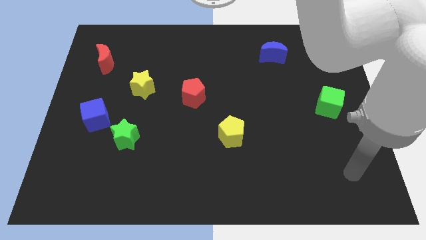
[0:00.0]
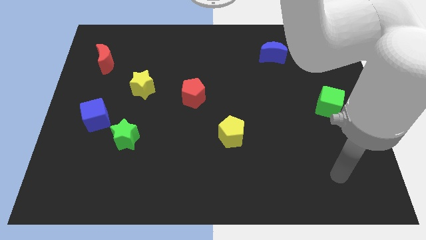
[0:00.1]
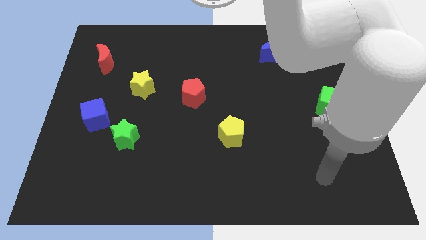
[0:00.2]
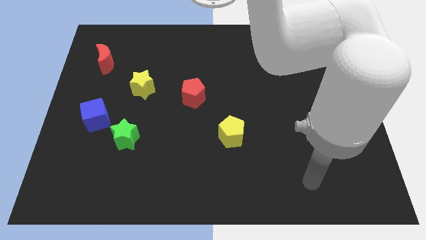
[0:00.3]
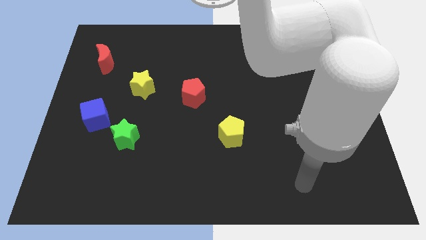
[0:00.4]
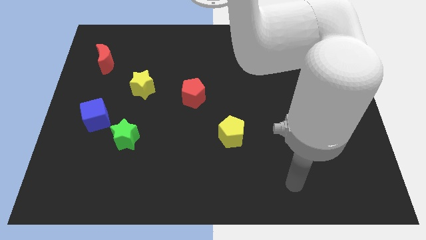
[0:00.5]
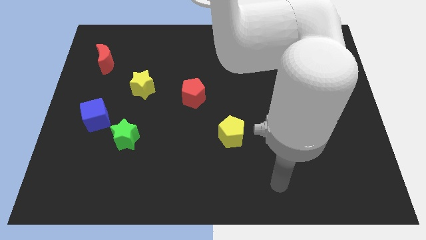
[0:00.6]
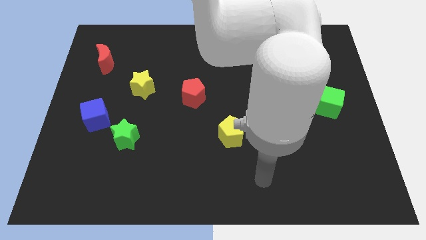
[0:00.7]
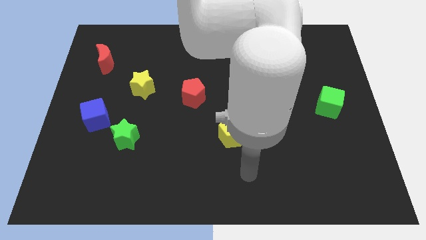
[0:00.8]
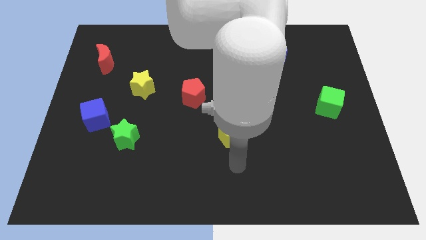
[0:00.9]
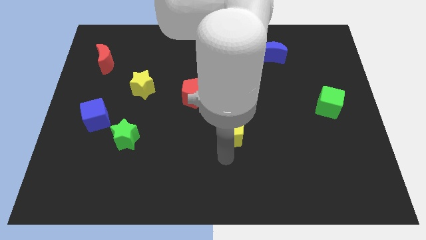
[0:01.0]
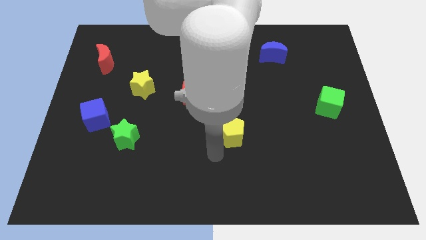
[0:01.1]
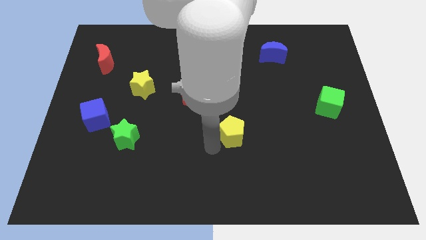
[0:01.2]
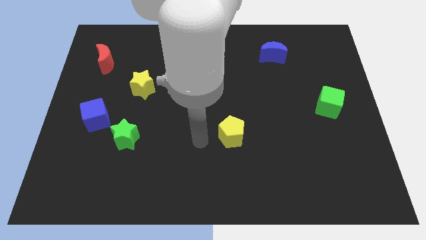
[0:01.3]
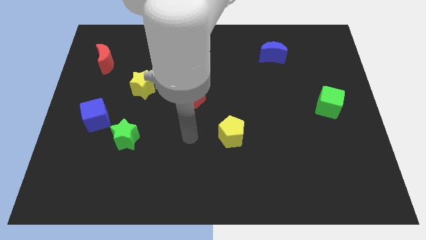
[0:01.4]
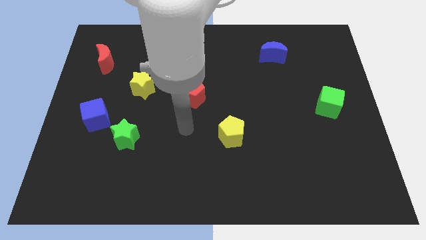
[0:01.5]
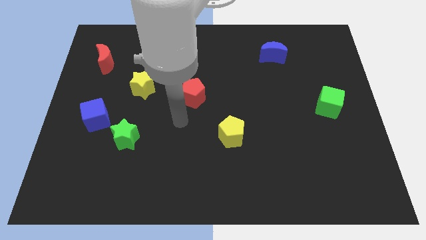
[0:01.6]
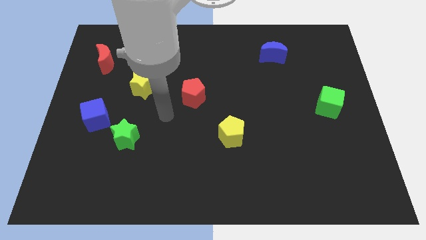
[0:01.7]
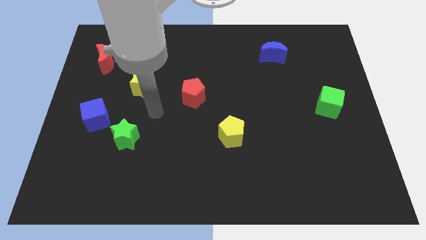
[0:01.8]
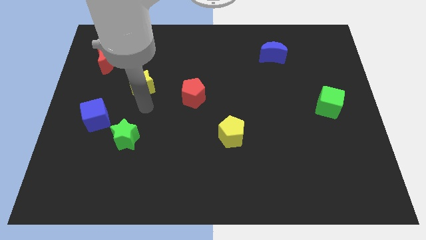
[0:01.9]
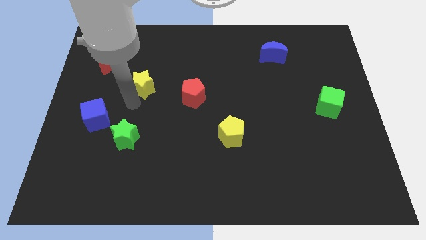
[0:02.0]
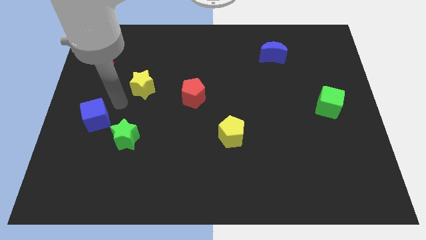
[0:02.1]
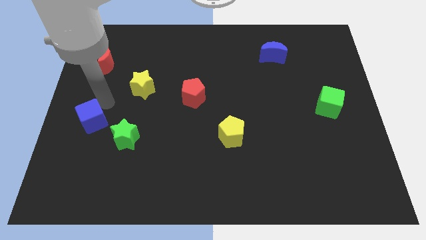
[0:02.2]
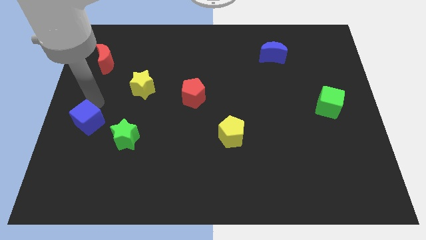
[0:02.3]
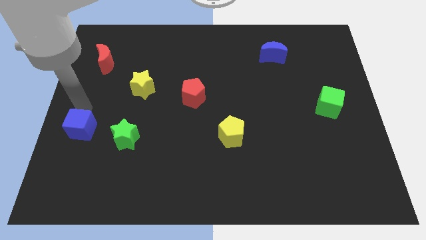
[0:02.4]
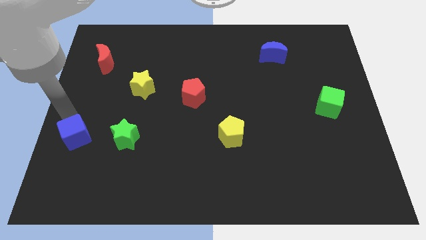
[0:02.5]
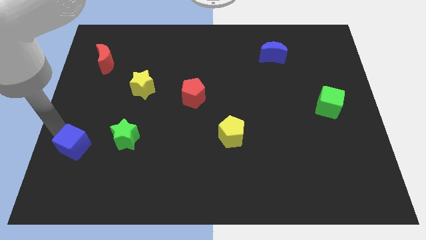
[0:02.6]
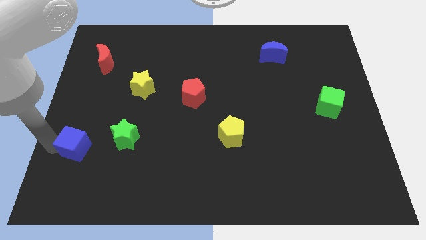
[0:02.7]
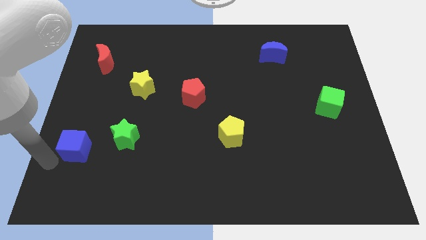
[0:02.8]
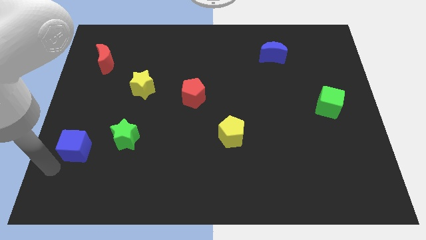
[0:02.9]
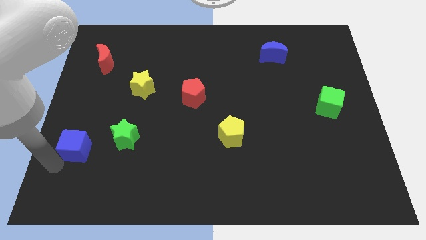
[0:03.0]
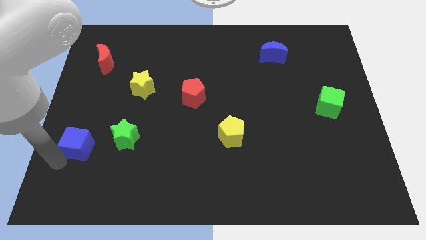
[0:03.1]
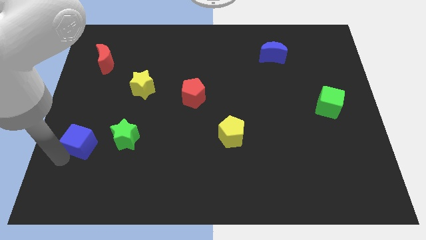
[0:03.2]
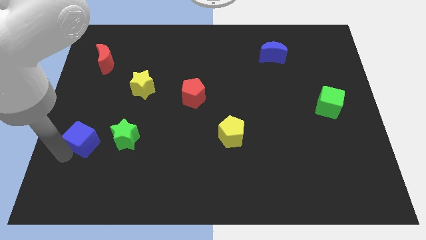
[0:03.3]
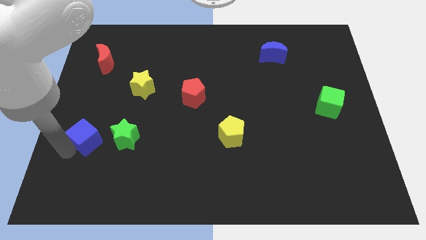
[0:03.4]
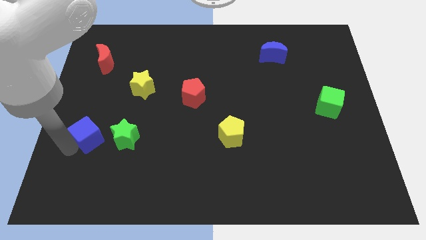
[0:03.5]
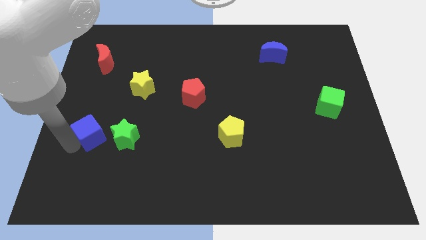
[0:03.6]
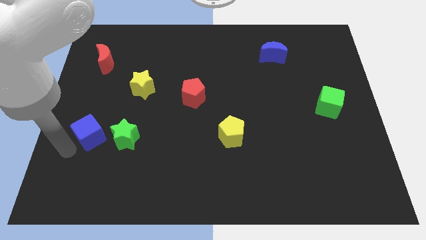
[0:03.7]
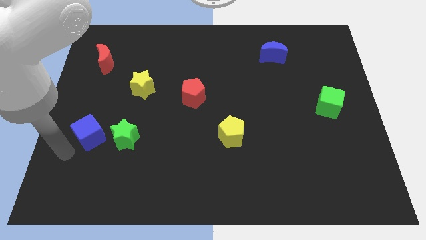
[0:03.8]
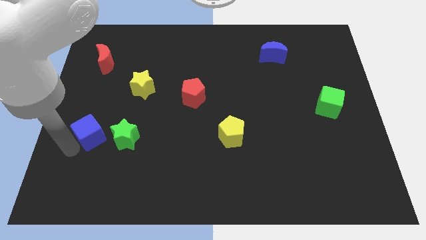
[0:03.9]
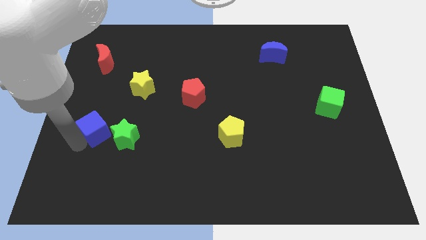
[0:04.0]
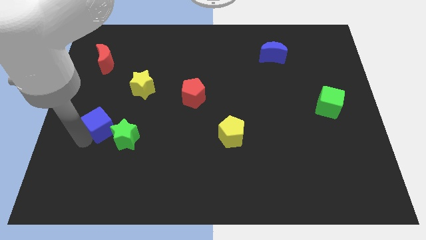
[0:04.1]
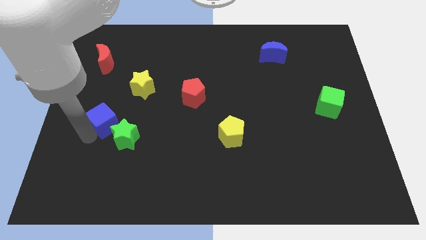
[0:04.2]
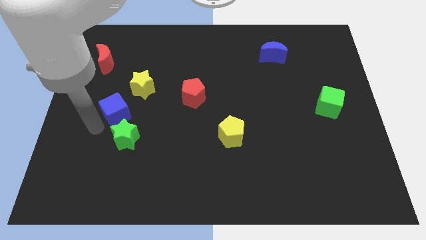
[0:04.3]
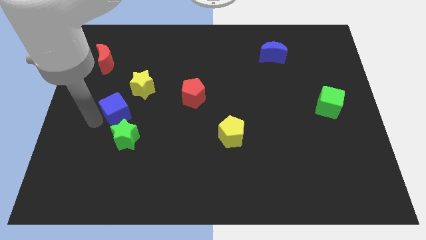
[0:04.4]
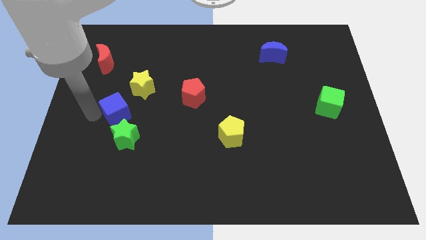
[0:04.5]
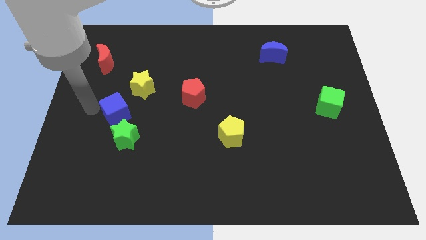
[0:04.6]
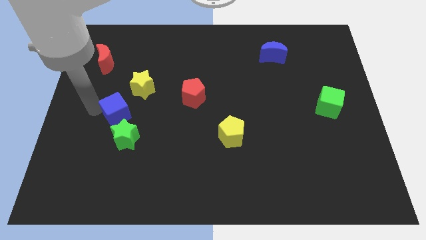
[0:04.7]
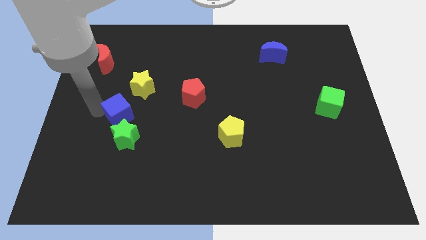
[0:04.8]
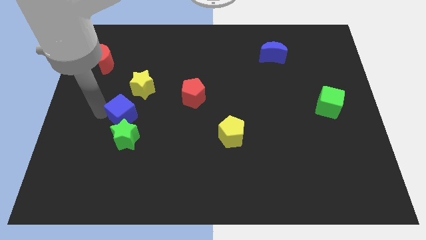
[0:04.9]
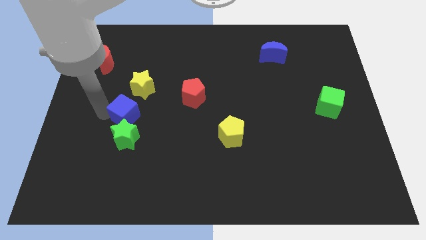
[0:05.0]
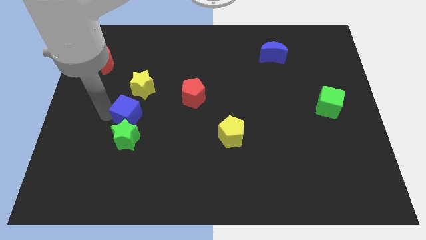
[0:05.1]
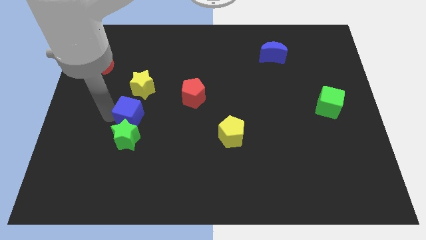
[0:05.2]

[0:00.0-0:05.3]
push the blue cube to the top right side of the green star

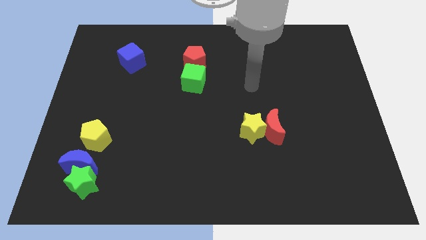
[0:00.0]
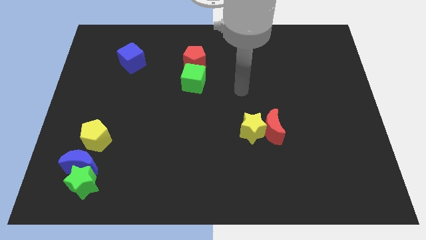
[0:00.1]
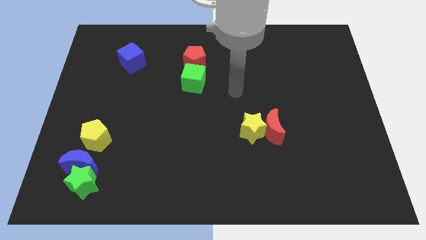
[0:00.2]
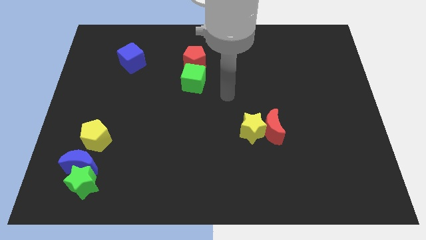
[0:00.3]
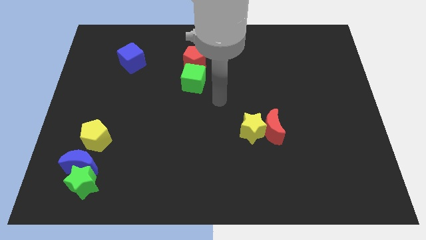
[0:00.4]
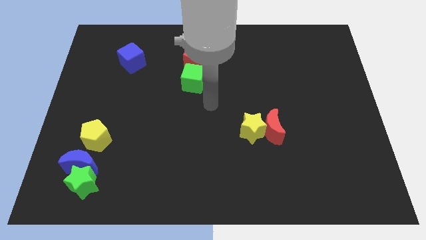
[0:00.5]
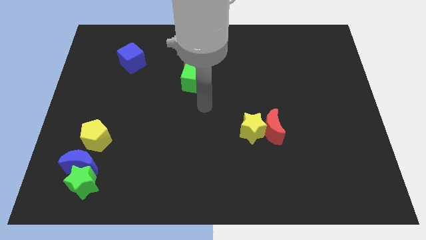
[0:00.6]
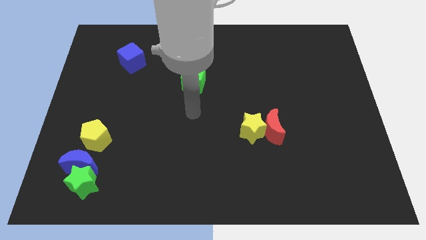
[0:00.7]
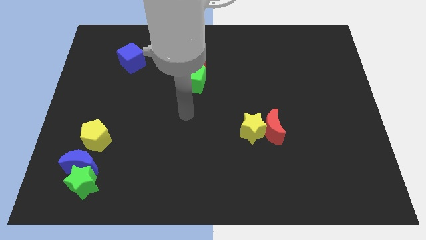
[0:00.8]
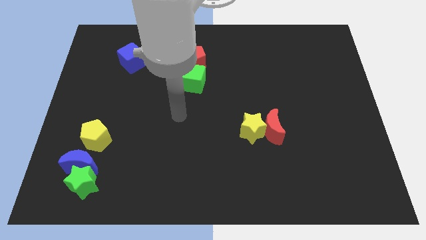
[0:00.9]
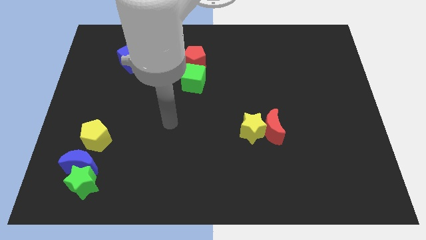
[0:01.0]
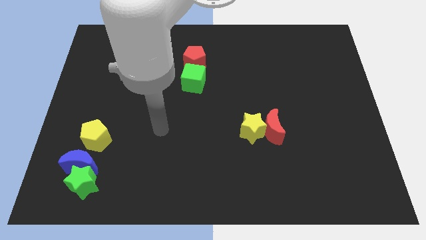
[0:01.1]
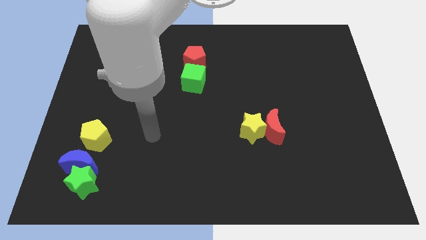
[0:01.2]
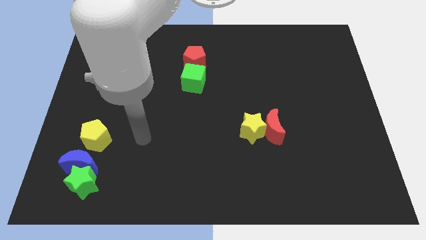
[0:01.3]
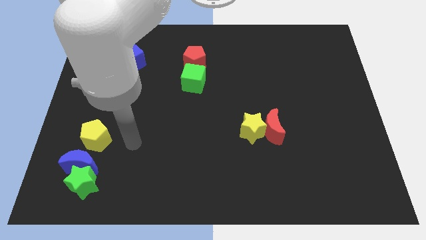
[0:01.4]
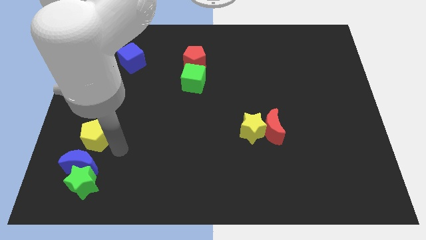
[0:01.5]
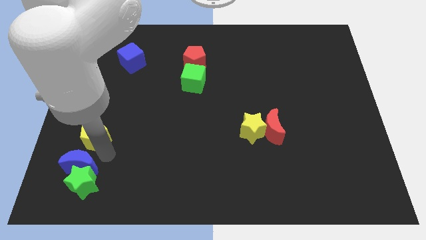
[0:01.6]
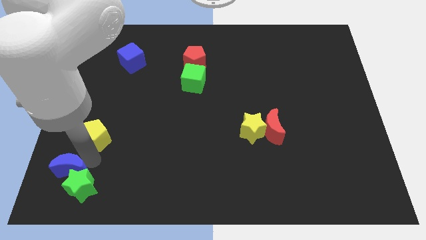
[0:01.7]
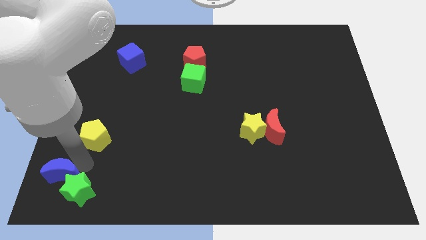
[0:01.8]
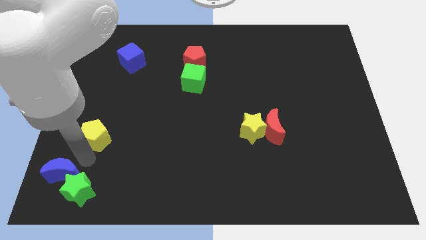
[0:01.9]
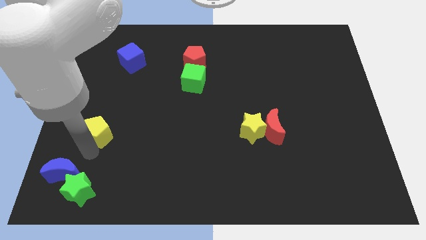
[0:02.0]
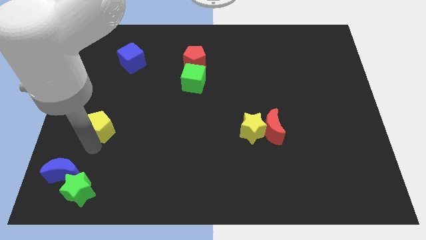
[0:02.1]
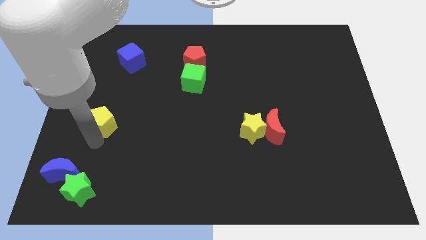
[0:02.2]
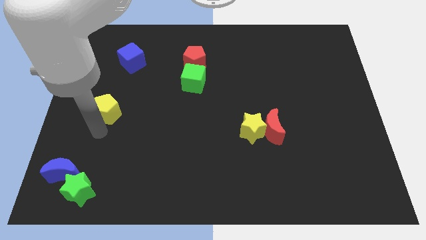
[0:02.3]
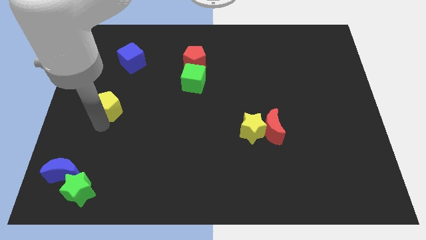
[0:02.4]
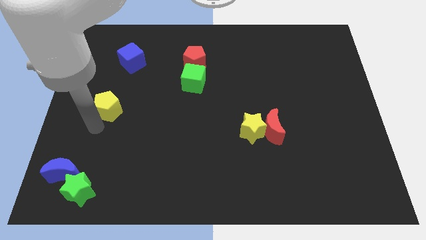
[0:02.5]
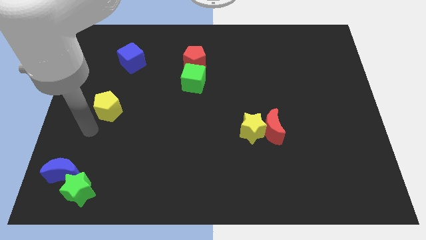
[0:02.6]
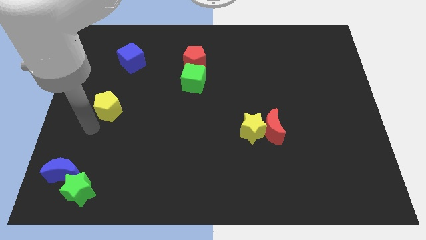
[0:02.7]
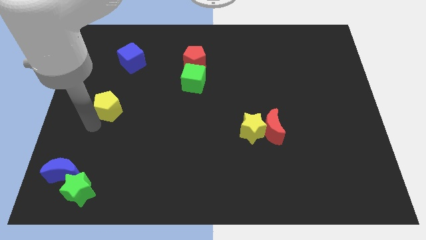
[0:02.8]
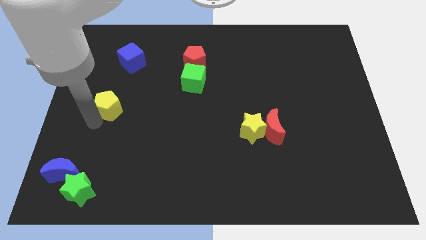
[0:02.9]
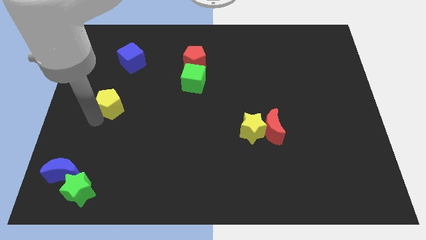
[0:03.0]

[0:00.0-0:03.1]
put the yellow pentagon to the bottom side of the blue cube
